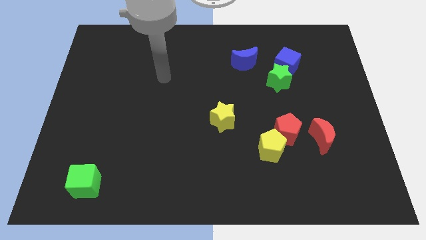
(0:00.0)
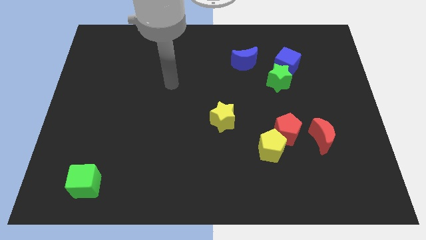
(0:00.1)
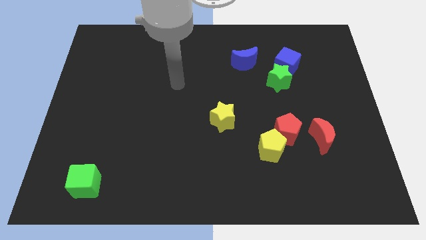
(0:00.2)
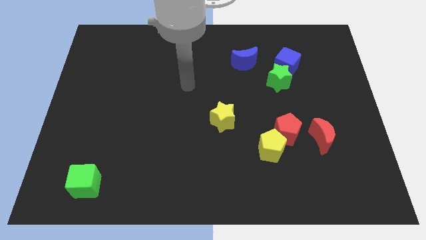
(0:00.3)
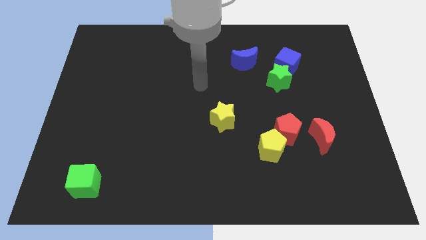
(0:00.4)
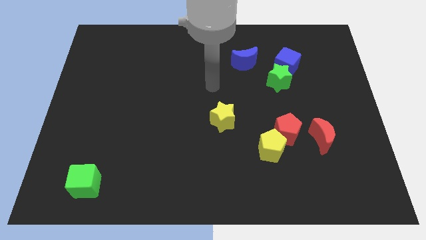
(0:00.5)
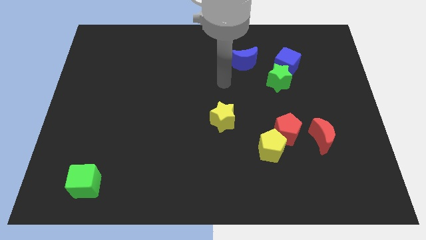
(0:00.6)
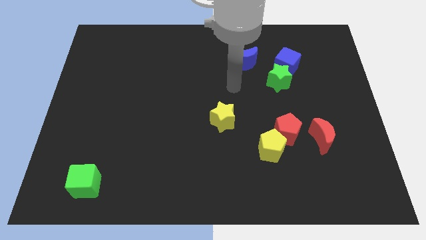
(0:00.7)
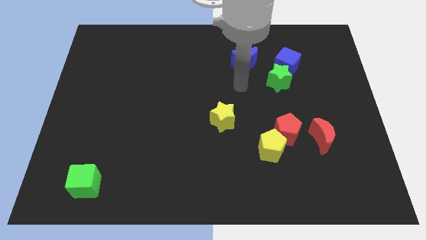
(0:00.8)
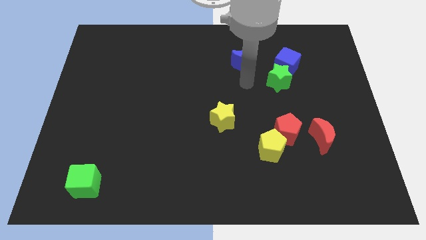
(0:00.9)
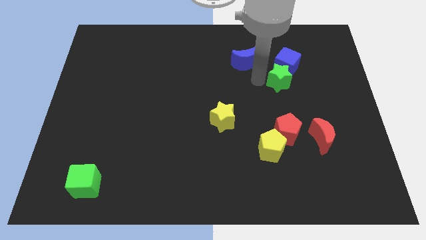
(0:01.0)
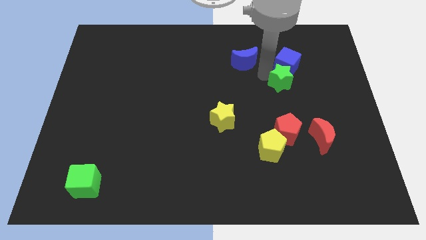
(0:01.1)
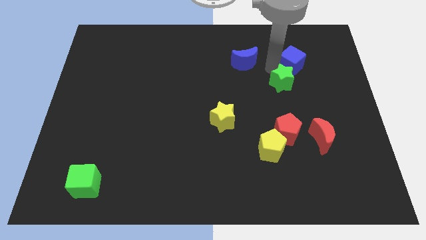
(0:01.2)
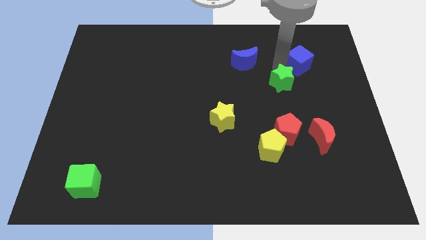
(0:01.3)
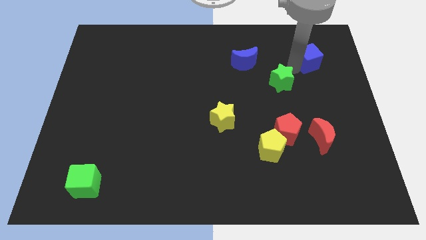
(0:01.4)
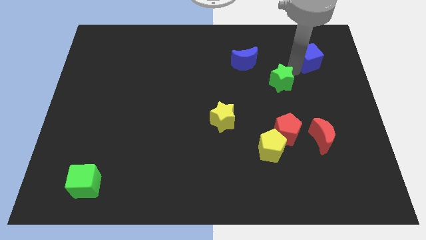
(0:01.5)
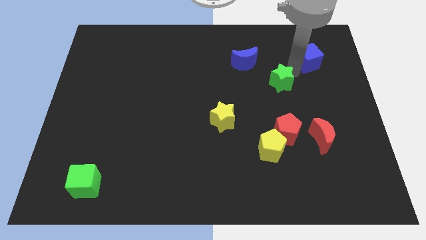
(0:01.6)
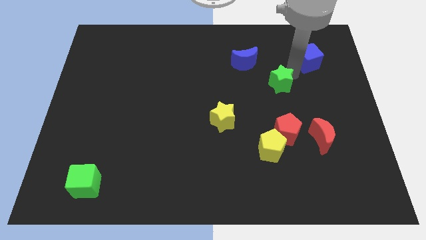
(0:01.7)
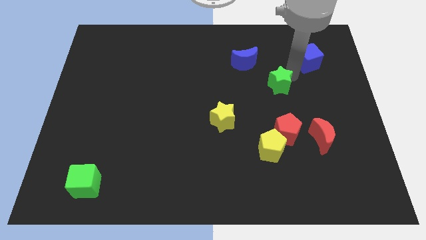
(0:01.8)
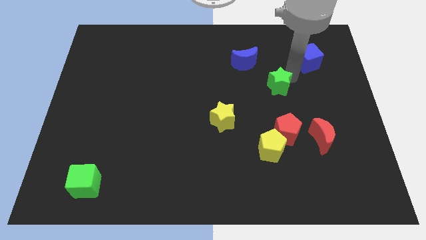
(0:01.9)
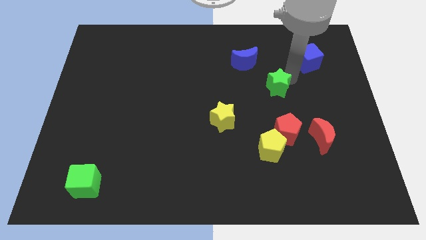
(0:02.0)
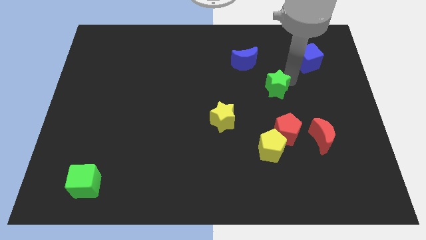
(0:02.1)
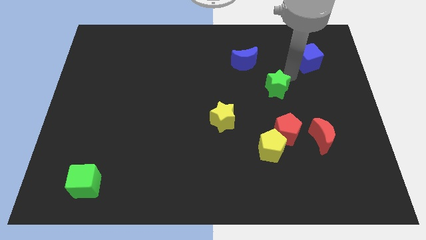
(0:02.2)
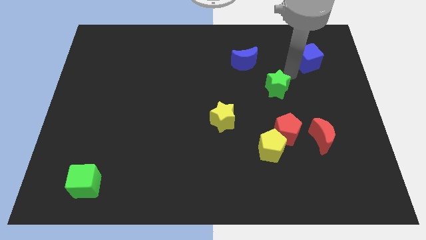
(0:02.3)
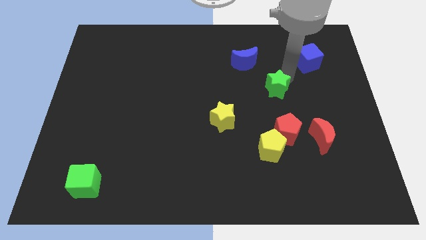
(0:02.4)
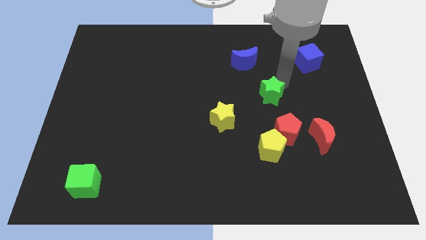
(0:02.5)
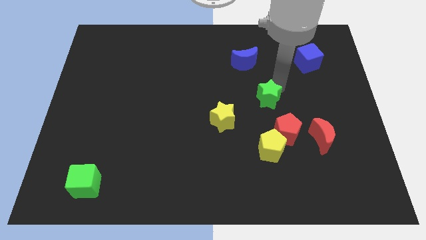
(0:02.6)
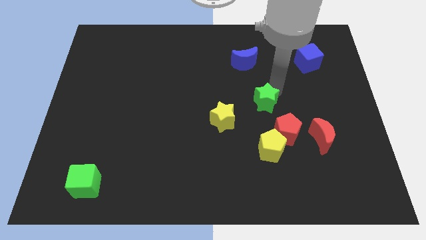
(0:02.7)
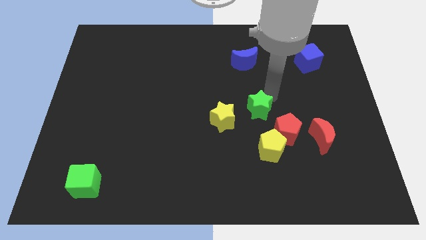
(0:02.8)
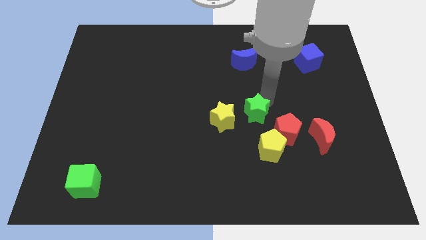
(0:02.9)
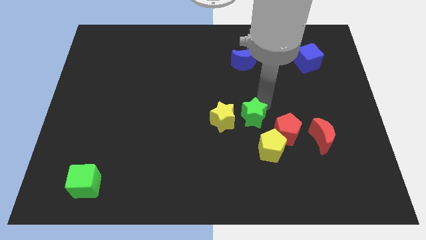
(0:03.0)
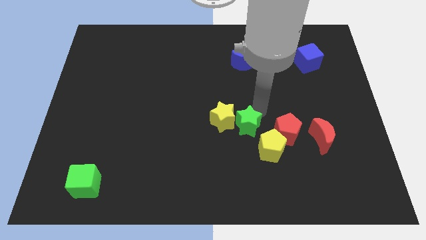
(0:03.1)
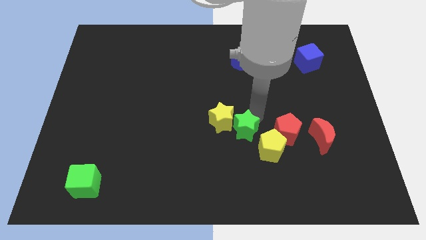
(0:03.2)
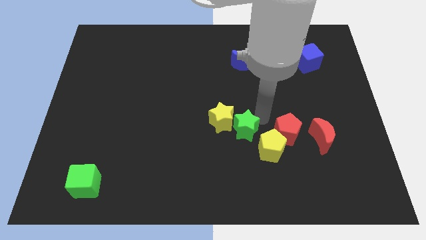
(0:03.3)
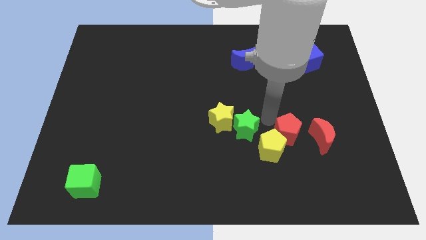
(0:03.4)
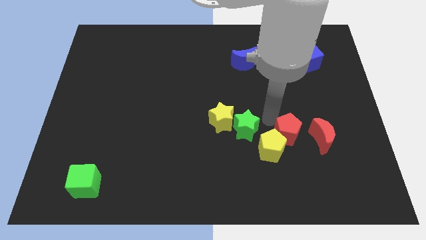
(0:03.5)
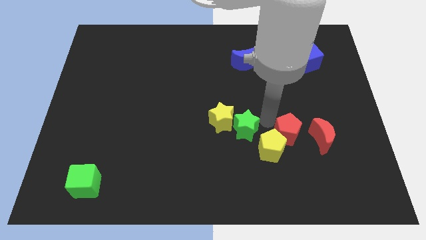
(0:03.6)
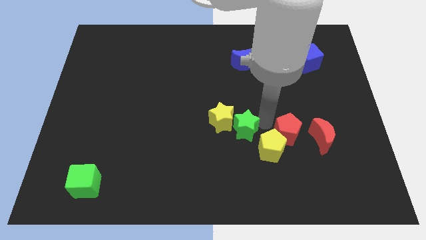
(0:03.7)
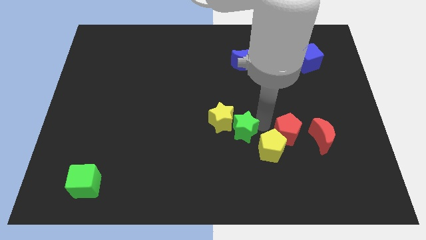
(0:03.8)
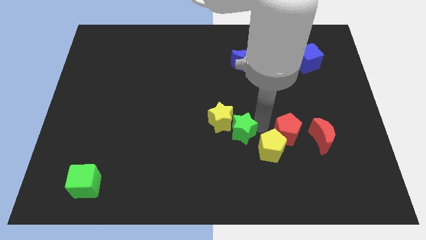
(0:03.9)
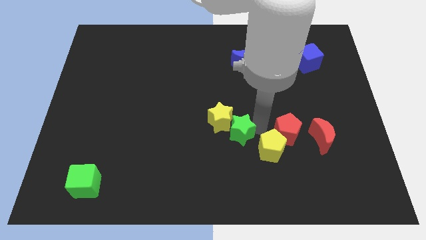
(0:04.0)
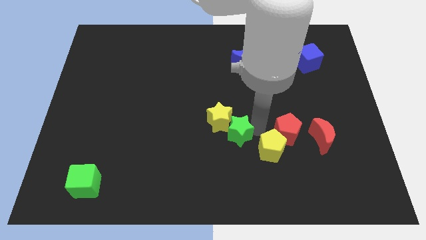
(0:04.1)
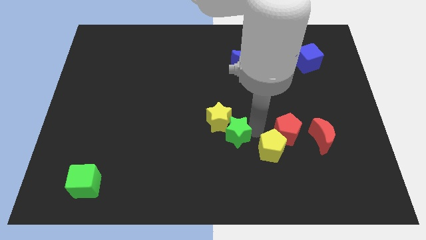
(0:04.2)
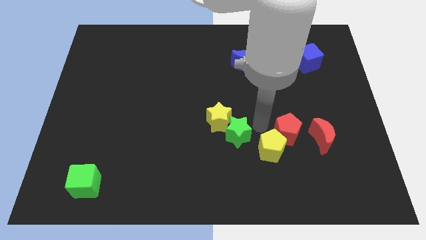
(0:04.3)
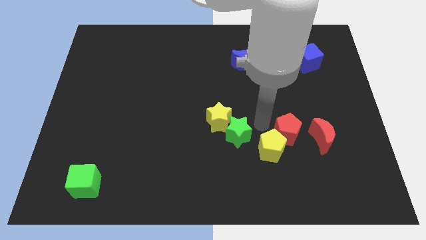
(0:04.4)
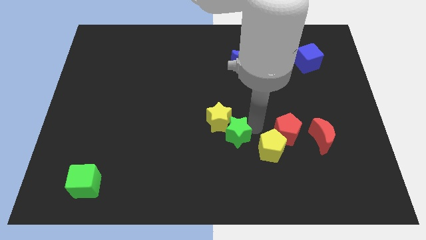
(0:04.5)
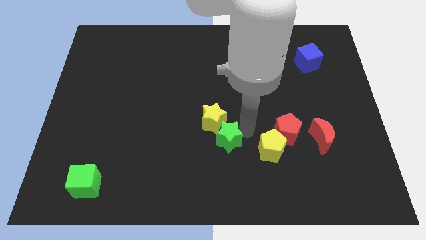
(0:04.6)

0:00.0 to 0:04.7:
move the green star down and then to the left

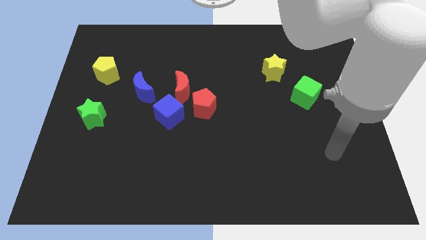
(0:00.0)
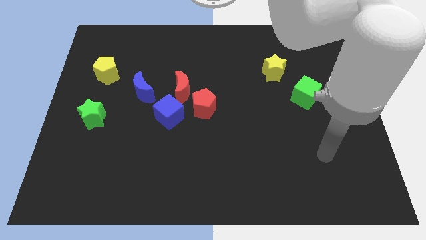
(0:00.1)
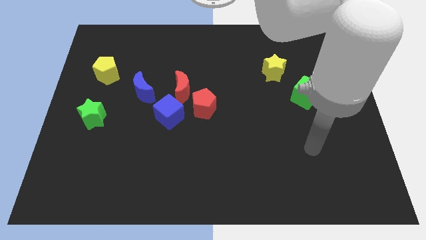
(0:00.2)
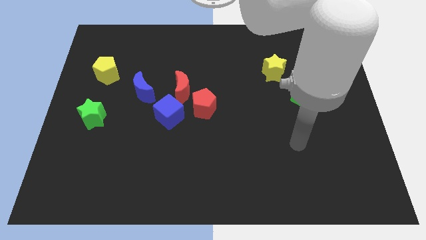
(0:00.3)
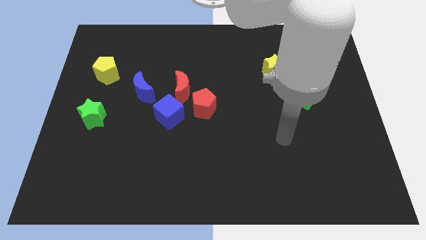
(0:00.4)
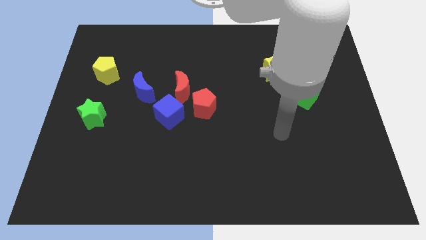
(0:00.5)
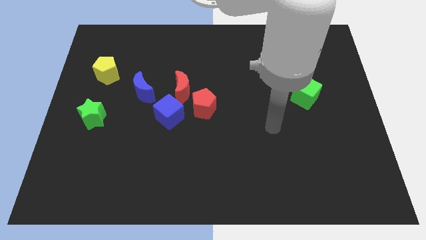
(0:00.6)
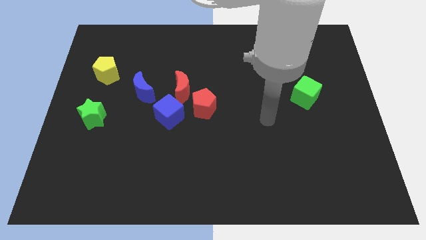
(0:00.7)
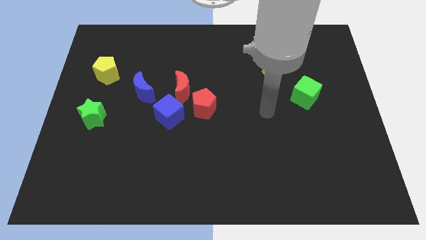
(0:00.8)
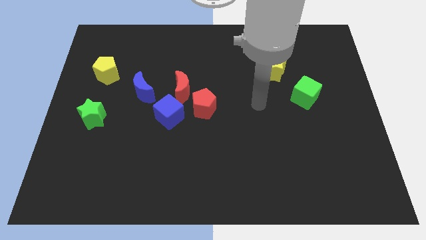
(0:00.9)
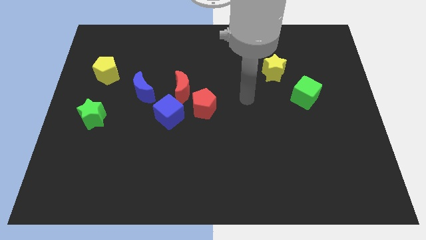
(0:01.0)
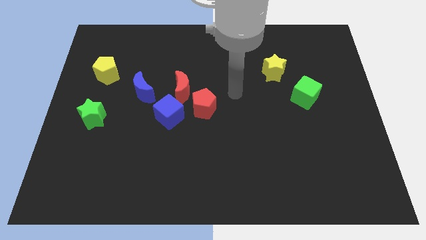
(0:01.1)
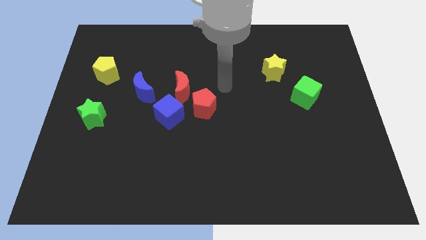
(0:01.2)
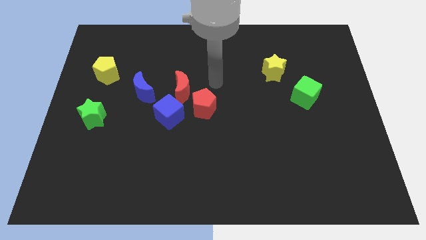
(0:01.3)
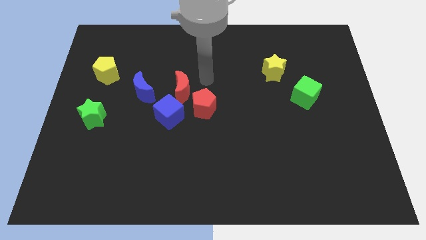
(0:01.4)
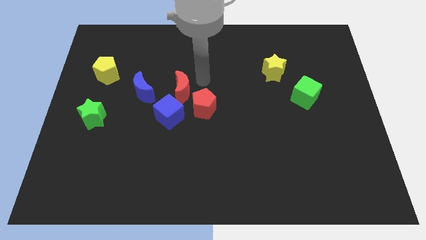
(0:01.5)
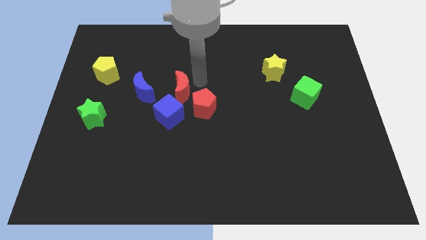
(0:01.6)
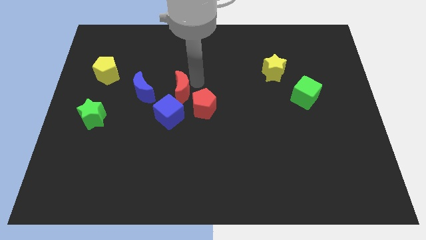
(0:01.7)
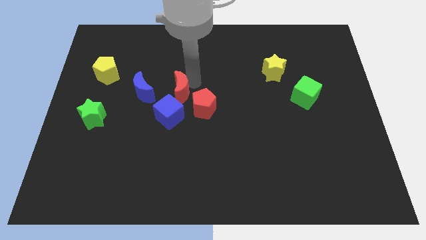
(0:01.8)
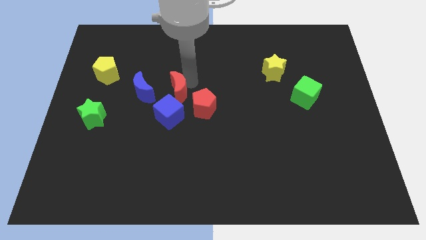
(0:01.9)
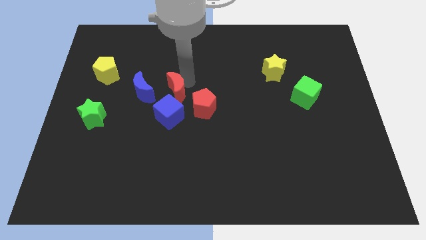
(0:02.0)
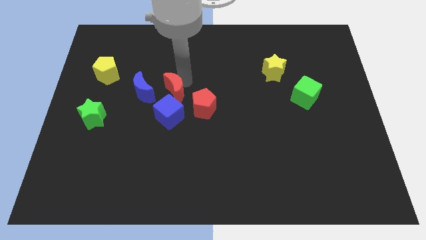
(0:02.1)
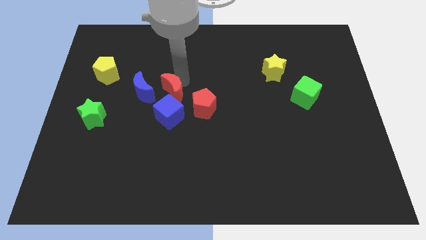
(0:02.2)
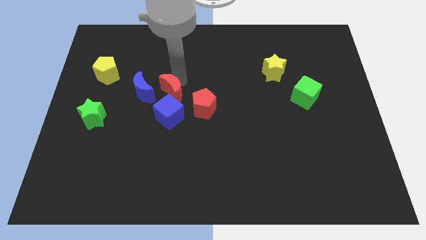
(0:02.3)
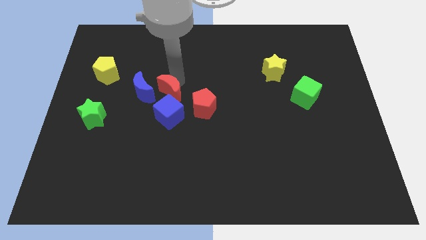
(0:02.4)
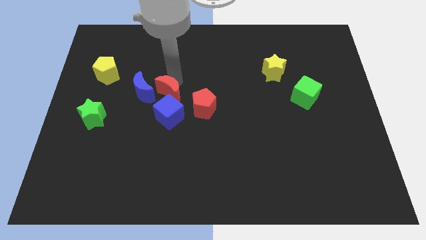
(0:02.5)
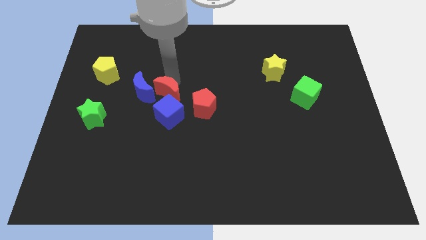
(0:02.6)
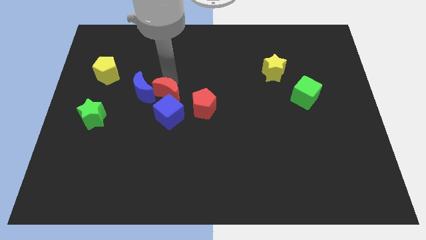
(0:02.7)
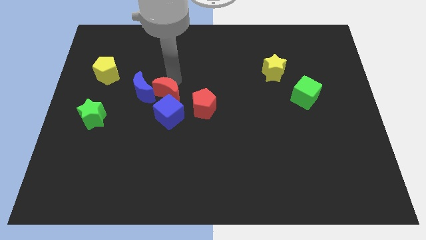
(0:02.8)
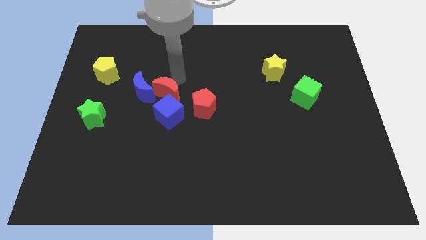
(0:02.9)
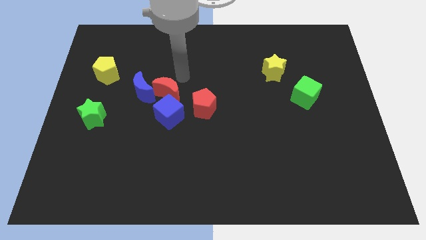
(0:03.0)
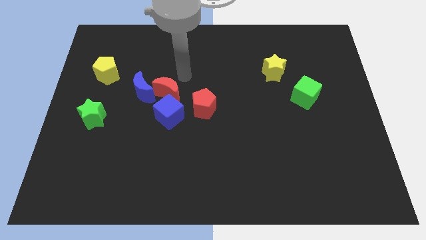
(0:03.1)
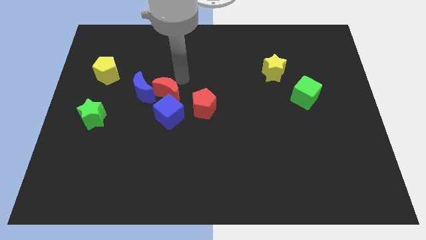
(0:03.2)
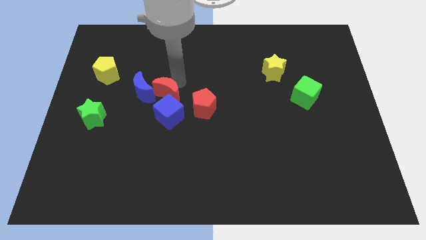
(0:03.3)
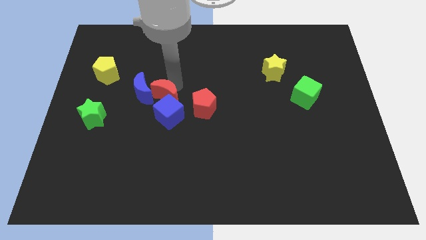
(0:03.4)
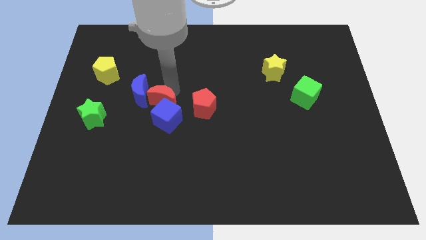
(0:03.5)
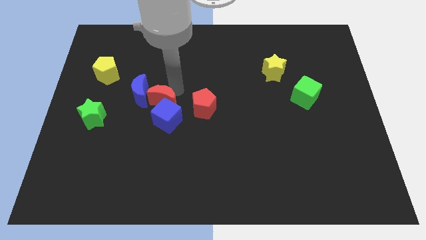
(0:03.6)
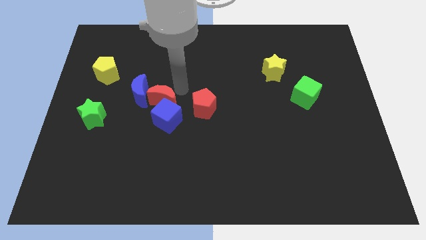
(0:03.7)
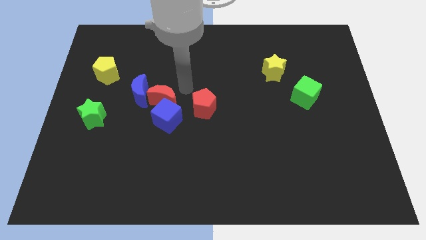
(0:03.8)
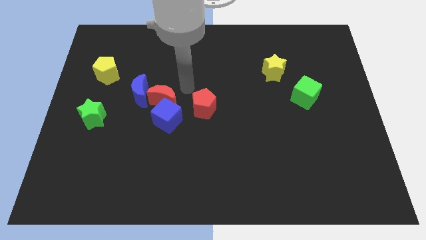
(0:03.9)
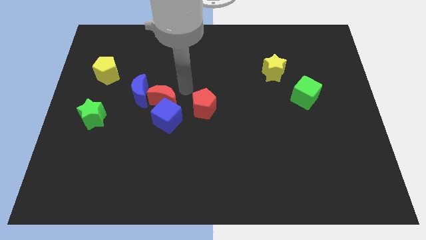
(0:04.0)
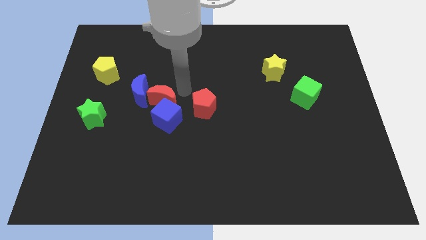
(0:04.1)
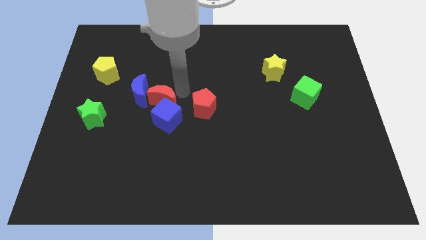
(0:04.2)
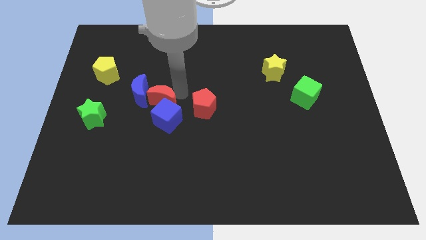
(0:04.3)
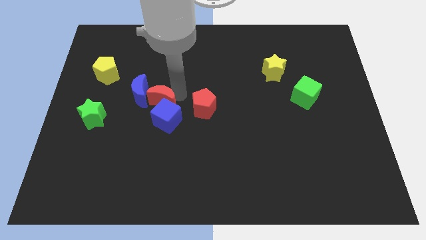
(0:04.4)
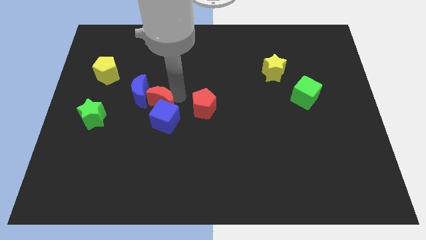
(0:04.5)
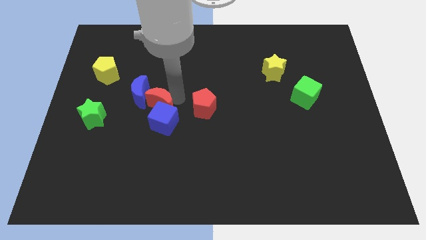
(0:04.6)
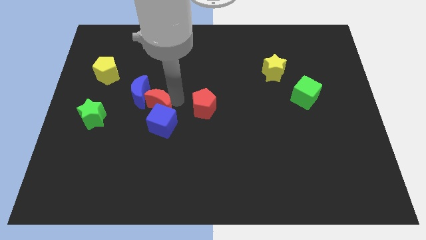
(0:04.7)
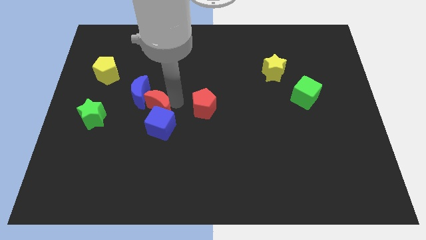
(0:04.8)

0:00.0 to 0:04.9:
push the red moon slightly diagonally downwards and to the left
